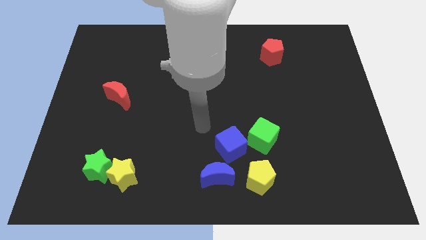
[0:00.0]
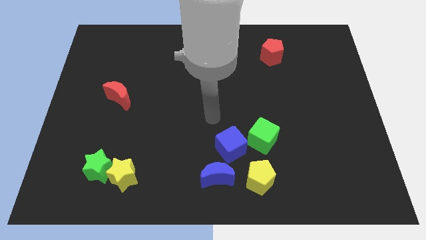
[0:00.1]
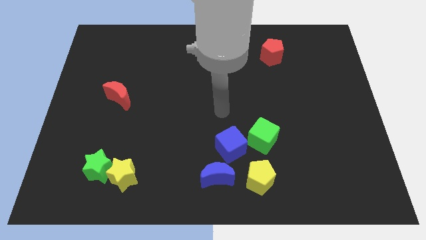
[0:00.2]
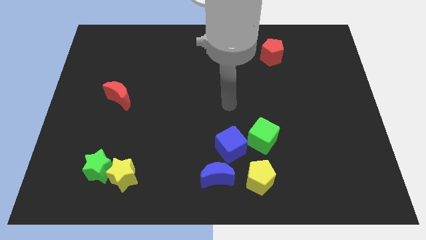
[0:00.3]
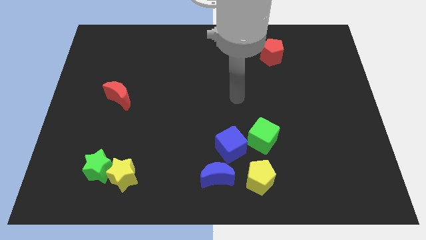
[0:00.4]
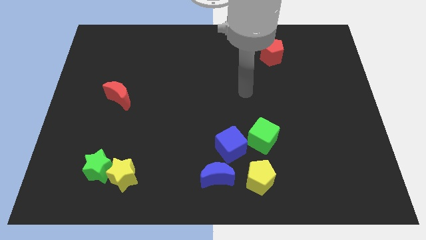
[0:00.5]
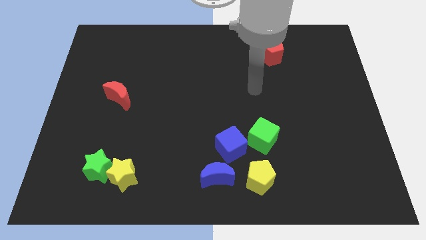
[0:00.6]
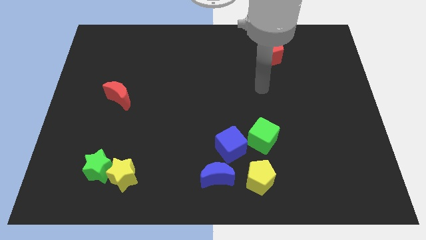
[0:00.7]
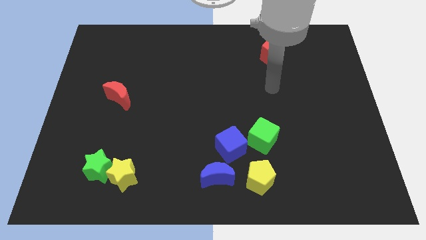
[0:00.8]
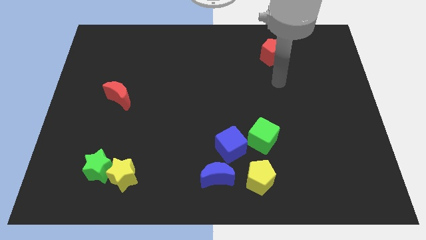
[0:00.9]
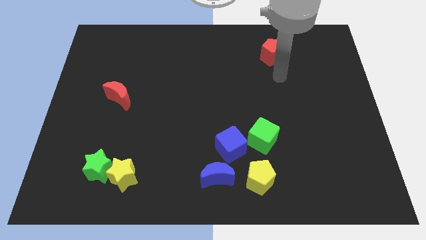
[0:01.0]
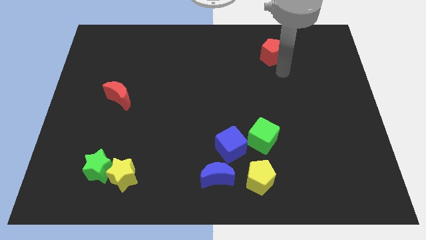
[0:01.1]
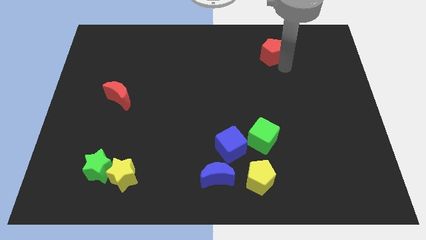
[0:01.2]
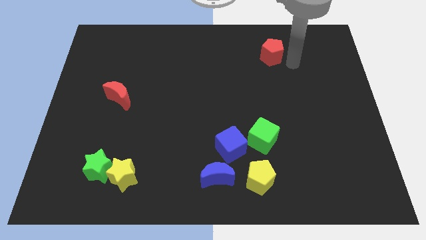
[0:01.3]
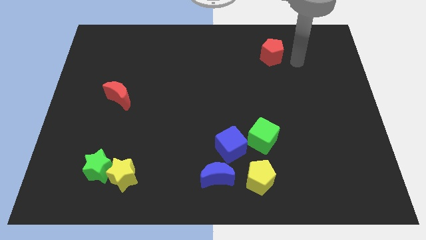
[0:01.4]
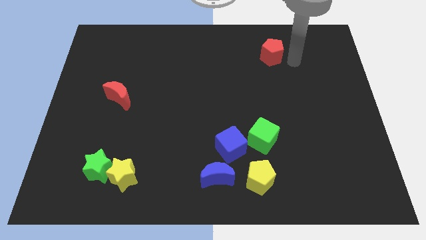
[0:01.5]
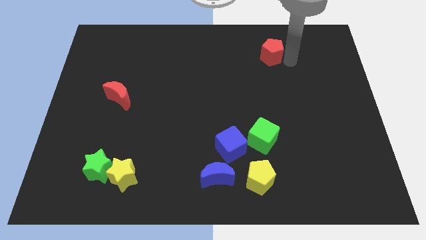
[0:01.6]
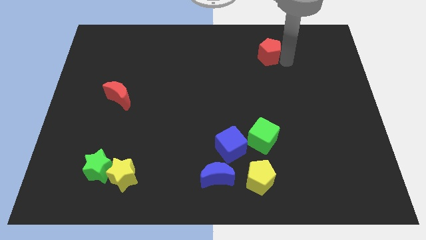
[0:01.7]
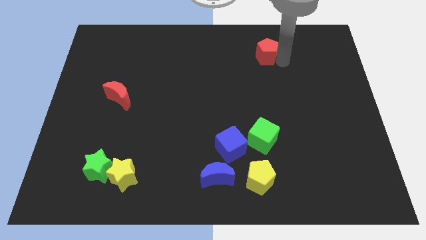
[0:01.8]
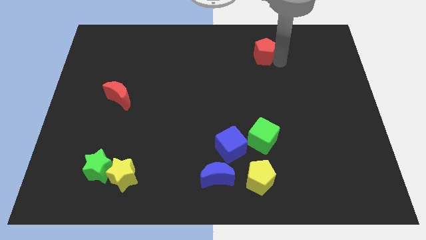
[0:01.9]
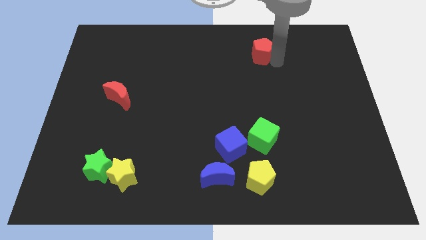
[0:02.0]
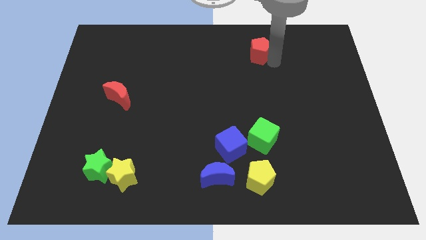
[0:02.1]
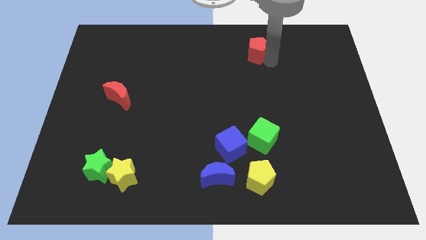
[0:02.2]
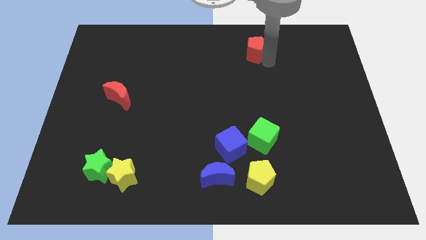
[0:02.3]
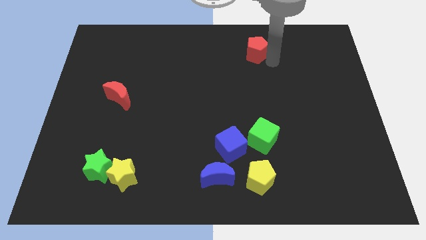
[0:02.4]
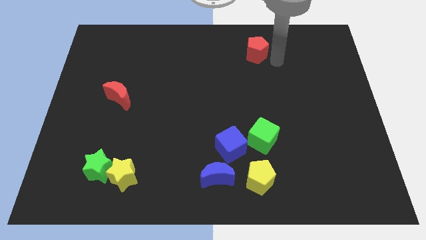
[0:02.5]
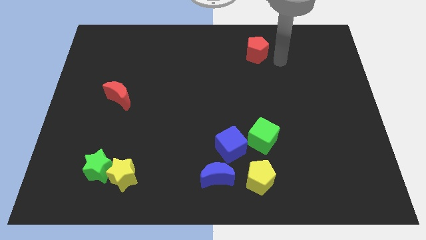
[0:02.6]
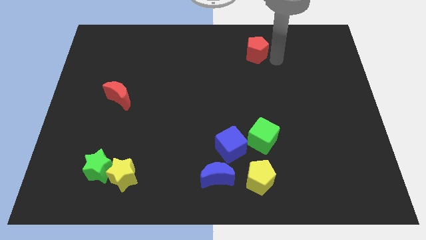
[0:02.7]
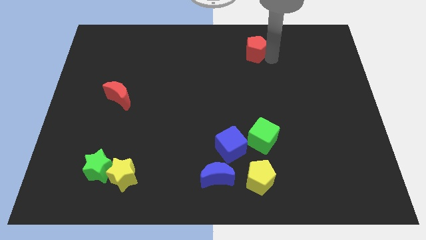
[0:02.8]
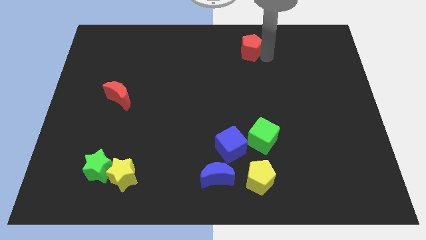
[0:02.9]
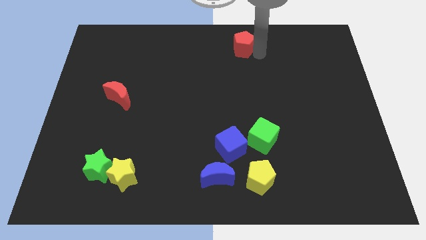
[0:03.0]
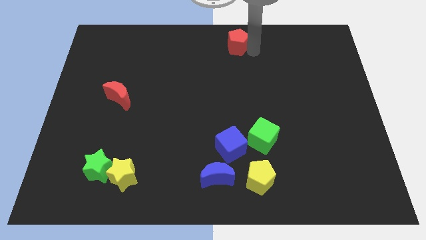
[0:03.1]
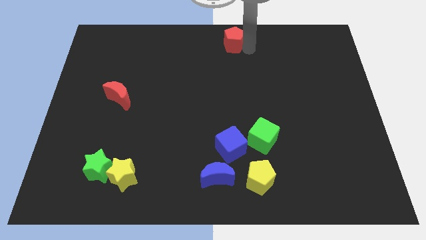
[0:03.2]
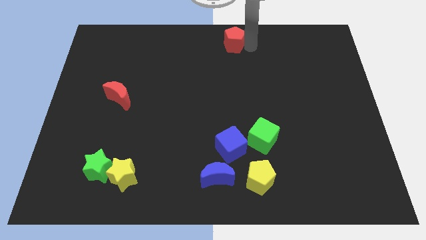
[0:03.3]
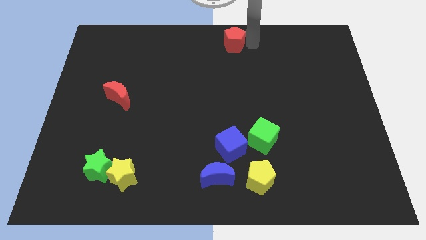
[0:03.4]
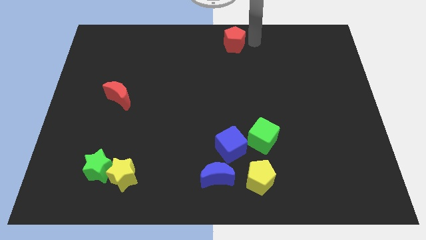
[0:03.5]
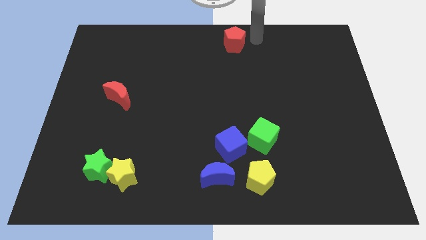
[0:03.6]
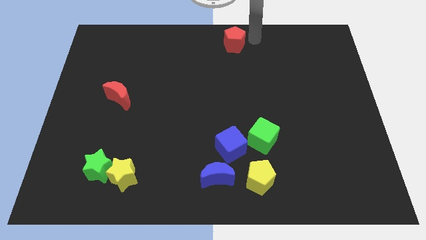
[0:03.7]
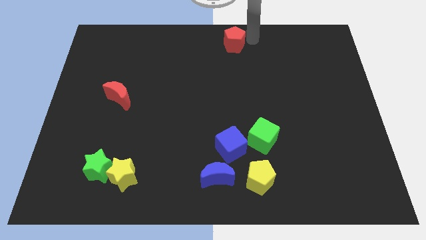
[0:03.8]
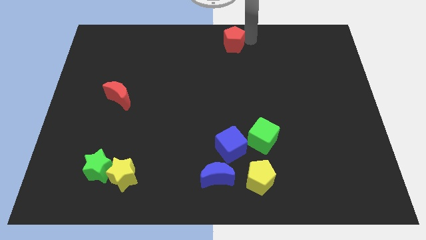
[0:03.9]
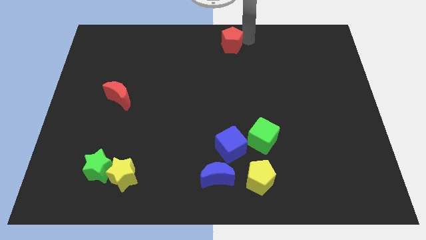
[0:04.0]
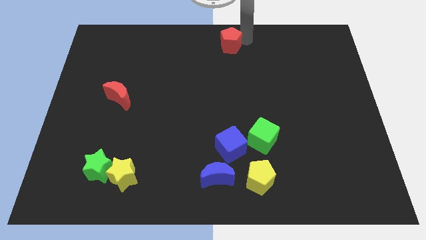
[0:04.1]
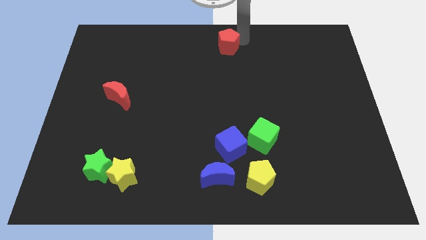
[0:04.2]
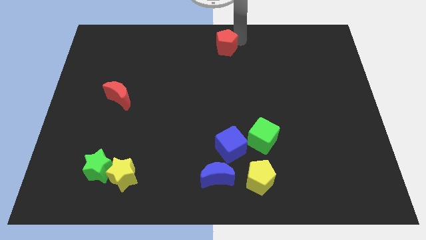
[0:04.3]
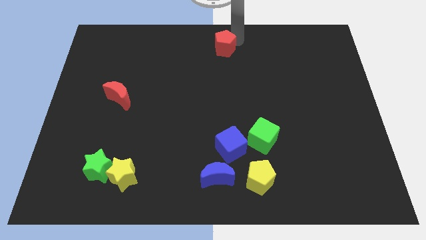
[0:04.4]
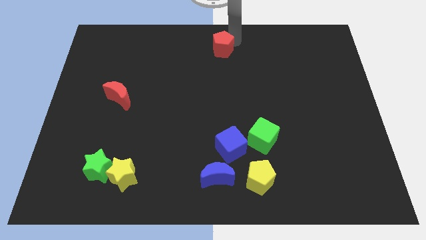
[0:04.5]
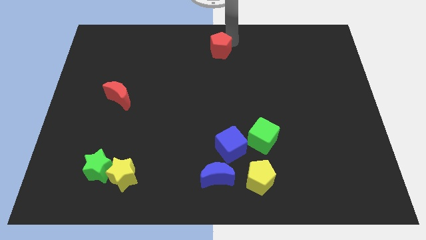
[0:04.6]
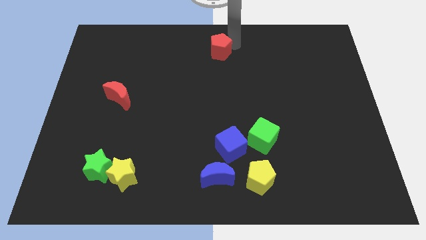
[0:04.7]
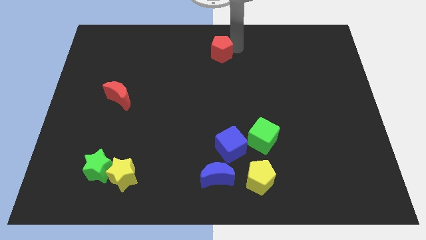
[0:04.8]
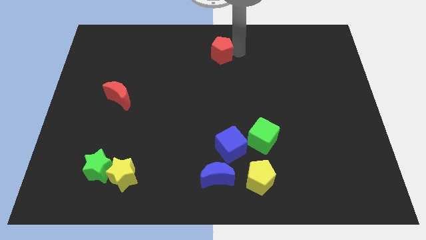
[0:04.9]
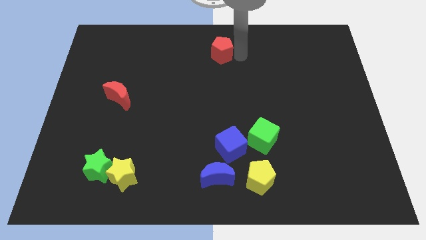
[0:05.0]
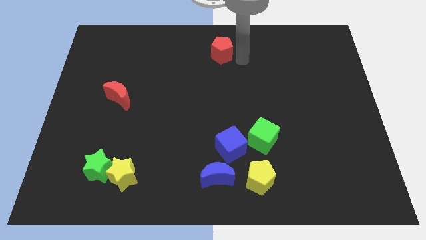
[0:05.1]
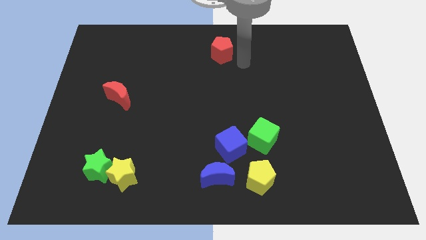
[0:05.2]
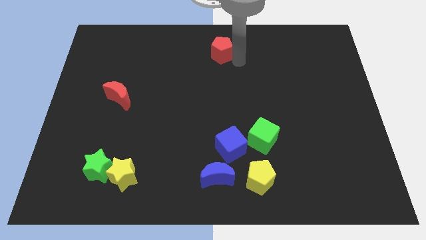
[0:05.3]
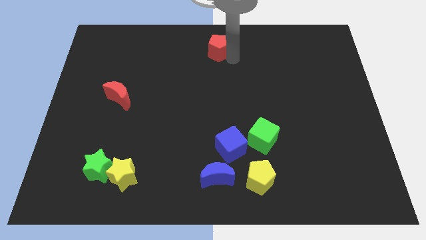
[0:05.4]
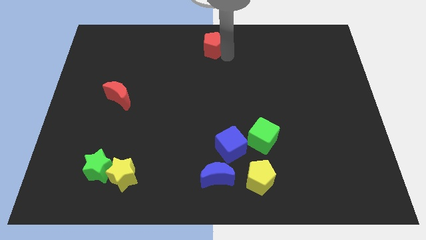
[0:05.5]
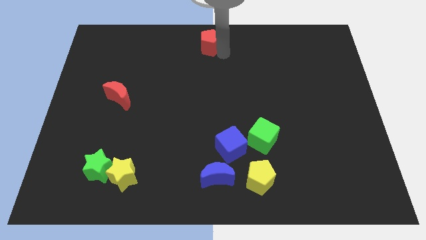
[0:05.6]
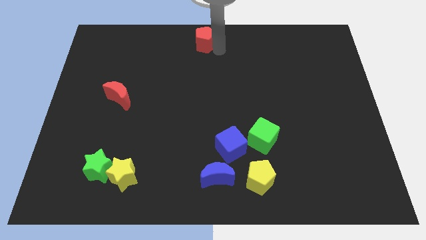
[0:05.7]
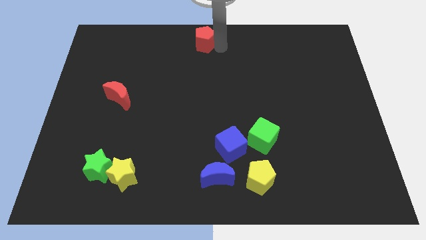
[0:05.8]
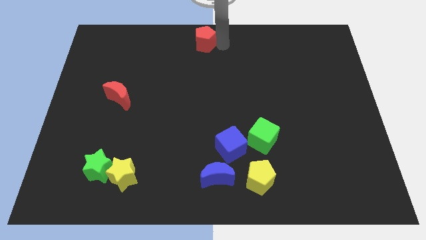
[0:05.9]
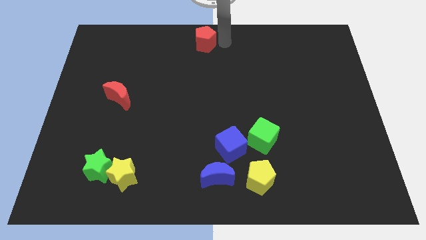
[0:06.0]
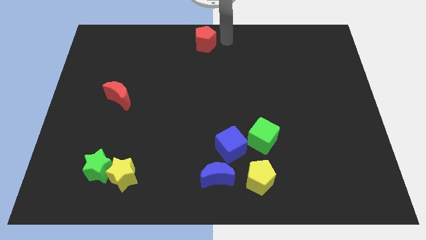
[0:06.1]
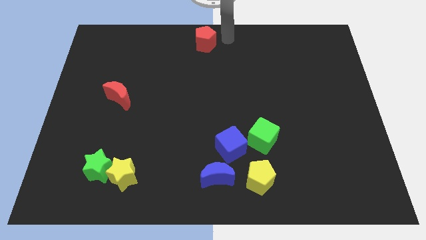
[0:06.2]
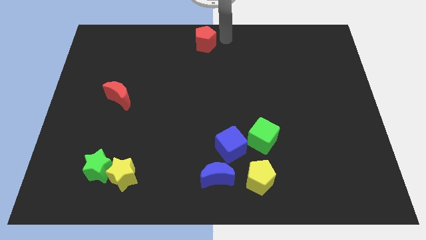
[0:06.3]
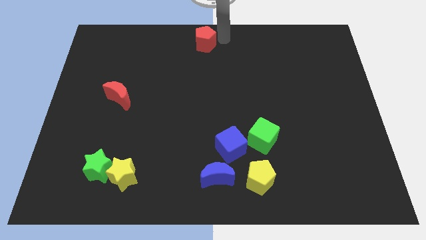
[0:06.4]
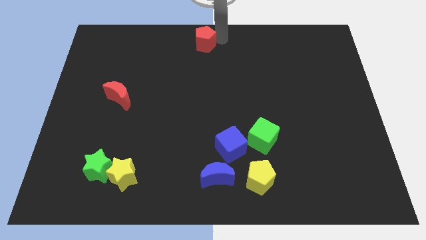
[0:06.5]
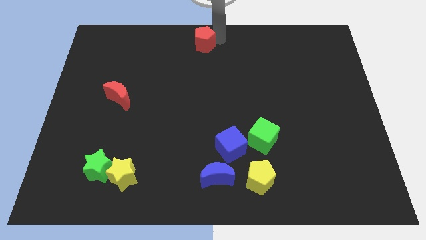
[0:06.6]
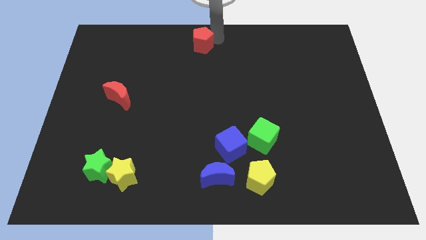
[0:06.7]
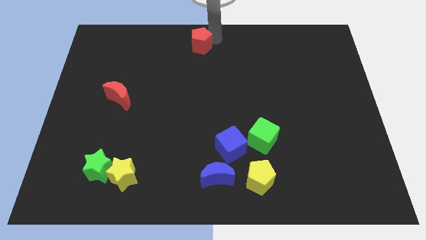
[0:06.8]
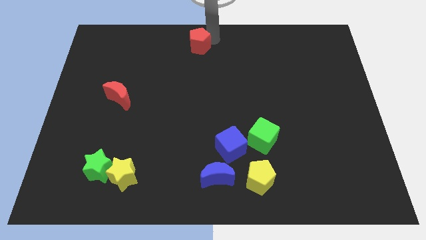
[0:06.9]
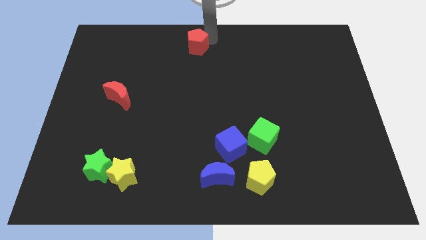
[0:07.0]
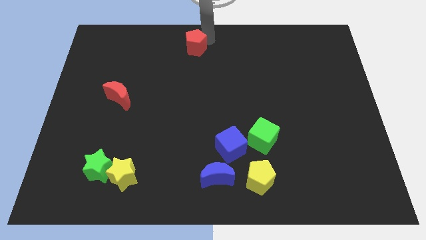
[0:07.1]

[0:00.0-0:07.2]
push the red pentagon left

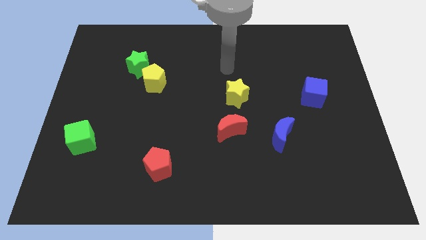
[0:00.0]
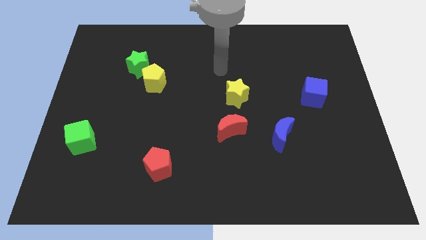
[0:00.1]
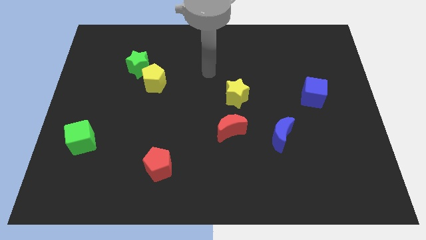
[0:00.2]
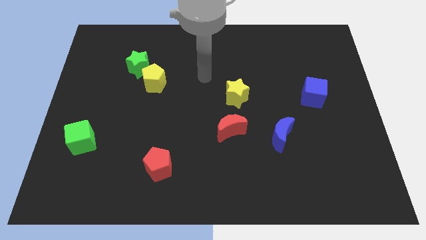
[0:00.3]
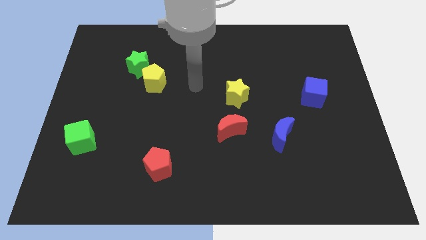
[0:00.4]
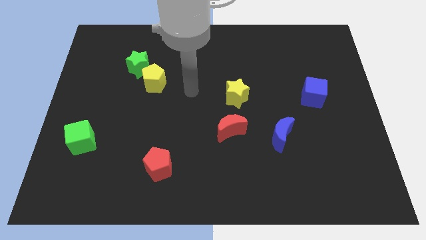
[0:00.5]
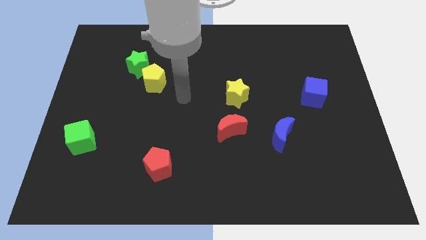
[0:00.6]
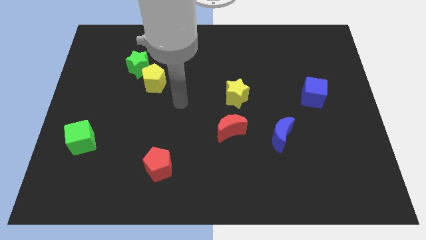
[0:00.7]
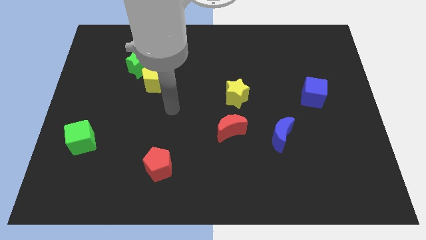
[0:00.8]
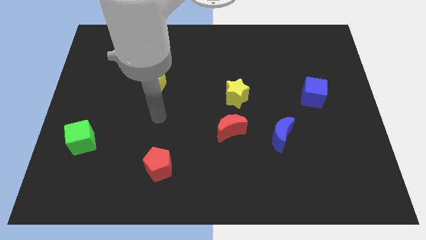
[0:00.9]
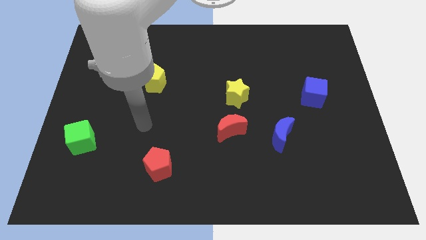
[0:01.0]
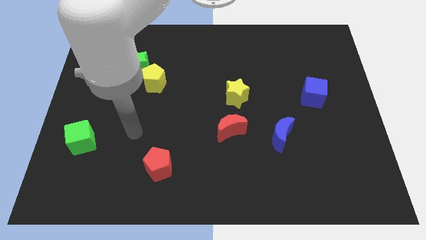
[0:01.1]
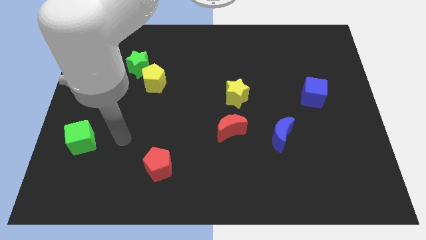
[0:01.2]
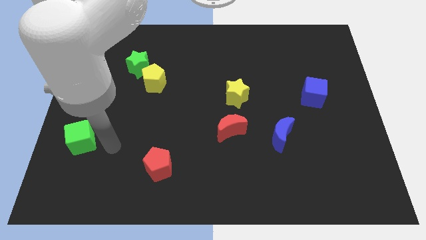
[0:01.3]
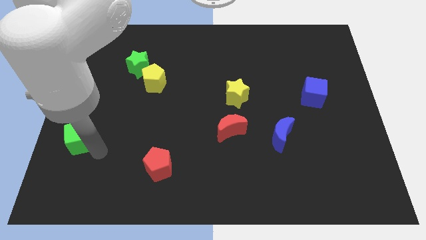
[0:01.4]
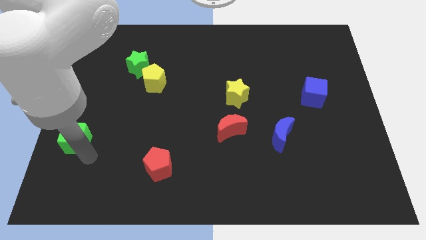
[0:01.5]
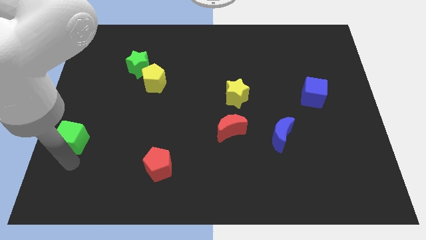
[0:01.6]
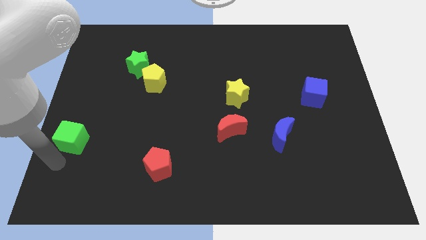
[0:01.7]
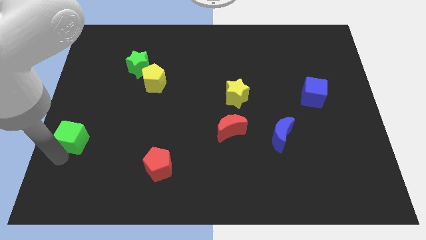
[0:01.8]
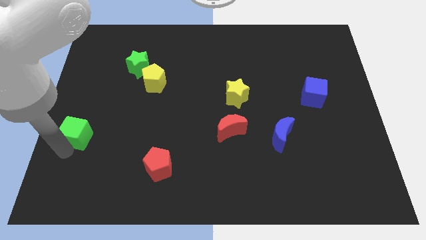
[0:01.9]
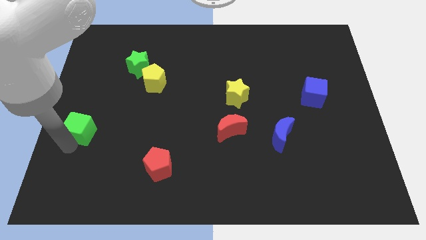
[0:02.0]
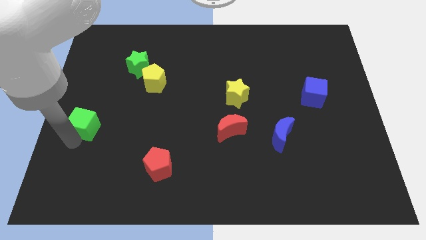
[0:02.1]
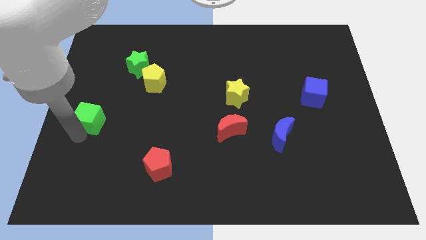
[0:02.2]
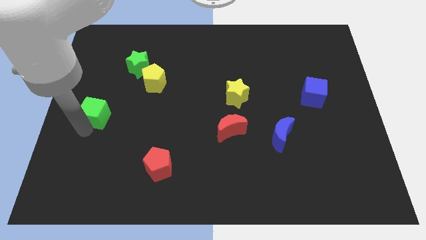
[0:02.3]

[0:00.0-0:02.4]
slightly slide the green cube upwards
